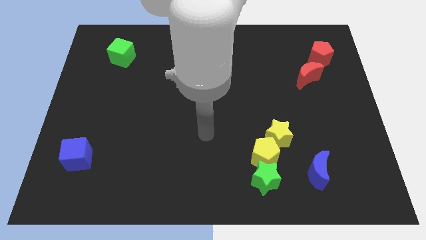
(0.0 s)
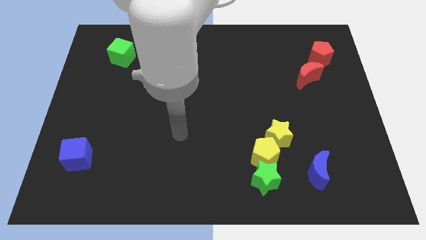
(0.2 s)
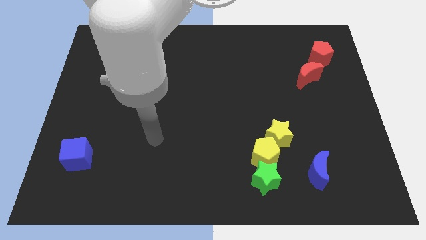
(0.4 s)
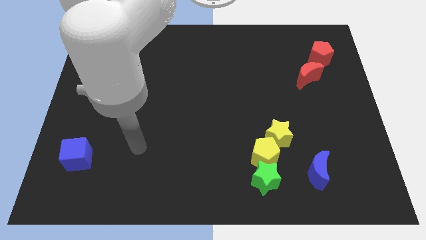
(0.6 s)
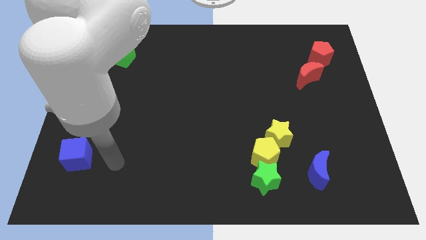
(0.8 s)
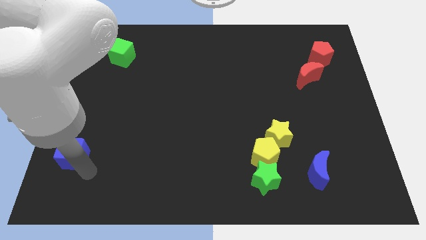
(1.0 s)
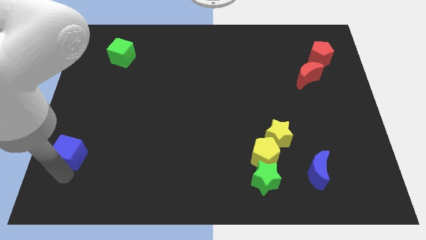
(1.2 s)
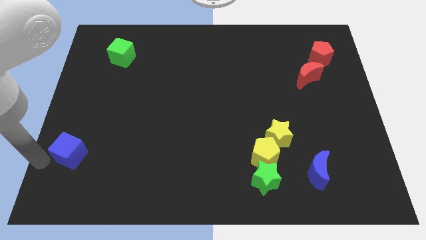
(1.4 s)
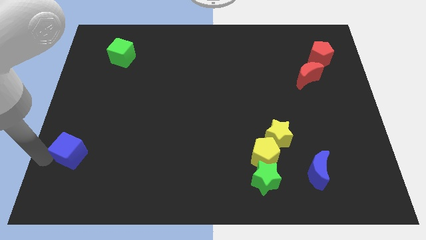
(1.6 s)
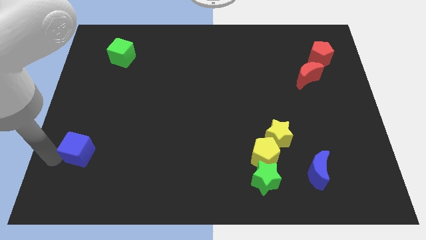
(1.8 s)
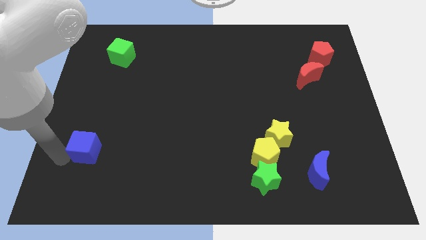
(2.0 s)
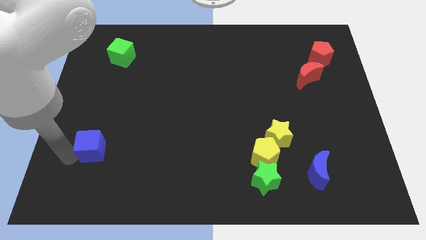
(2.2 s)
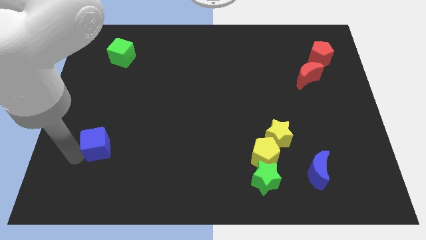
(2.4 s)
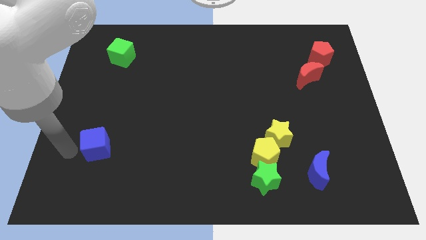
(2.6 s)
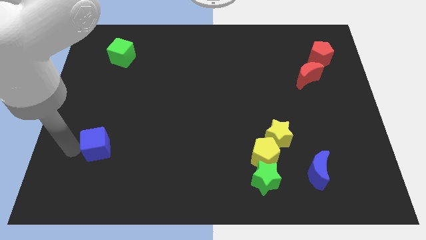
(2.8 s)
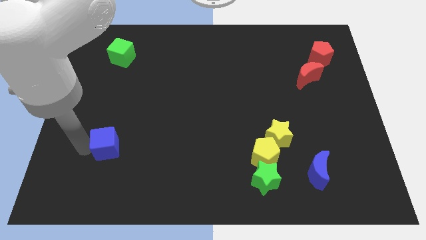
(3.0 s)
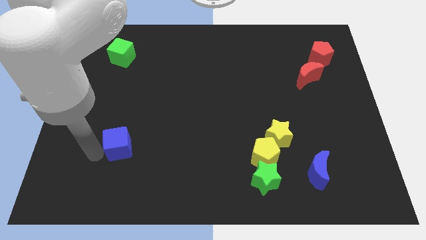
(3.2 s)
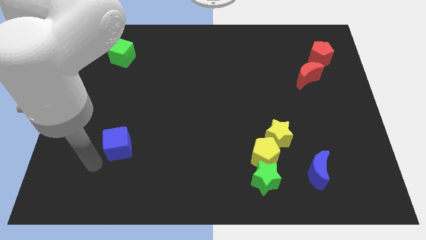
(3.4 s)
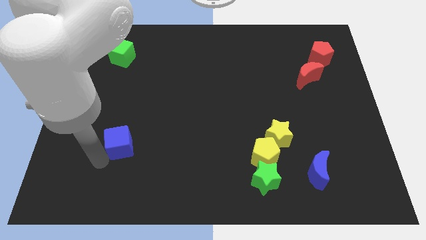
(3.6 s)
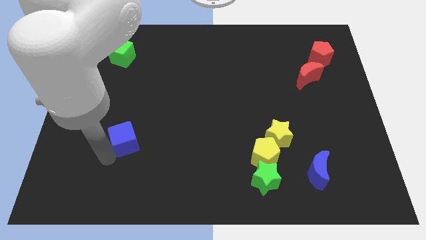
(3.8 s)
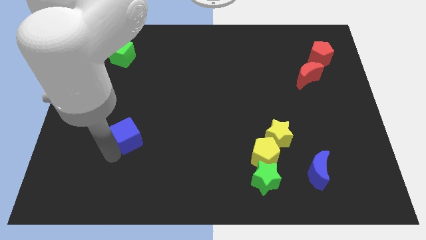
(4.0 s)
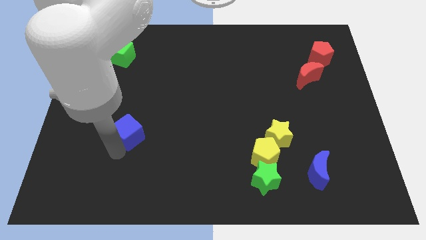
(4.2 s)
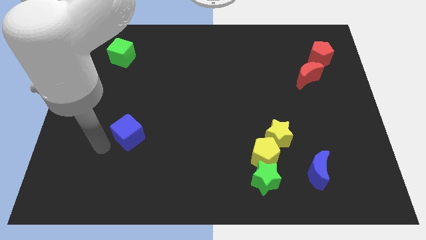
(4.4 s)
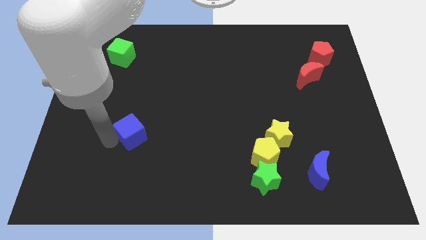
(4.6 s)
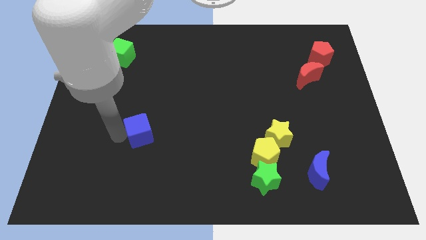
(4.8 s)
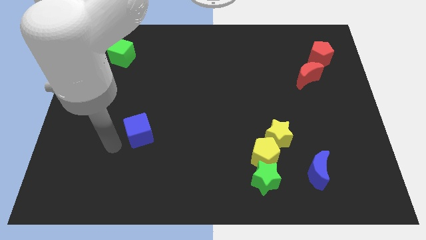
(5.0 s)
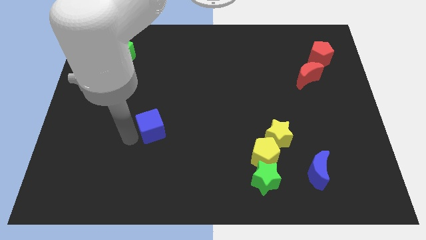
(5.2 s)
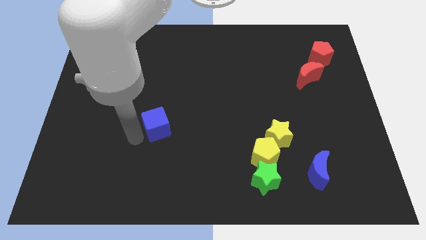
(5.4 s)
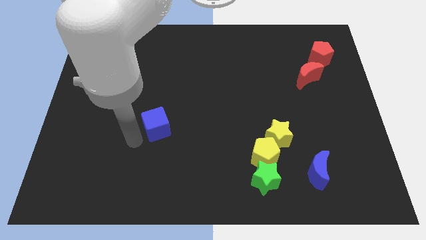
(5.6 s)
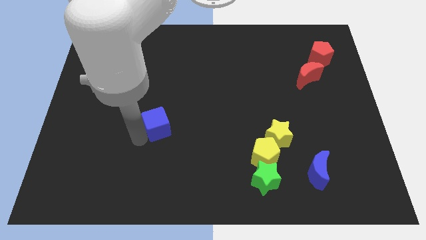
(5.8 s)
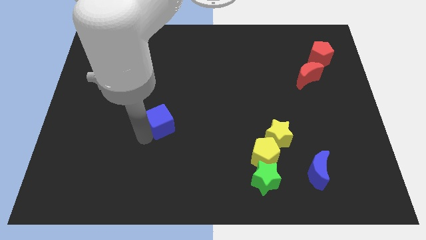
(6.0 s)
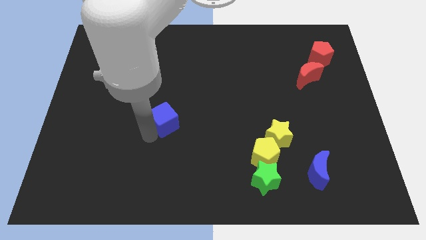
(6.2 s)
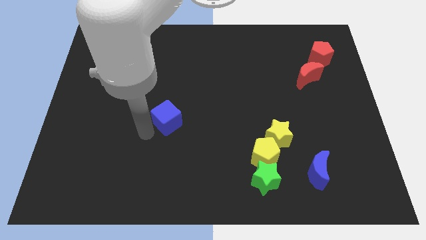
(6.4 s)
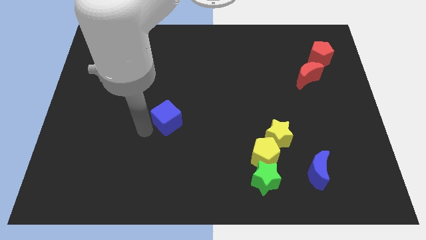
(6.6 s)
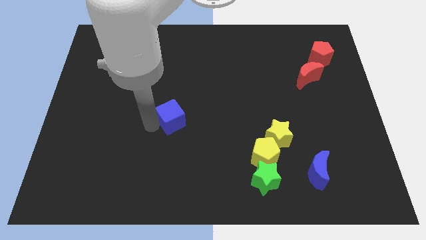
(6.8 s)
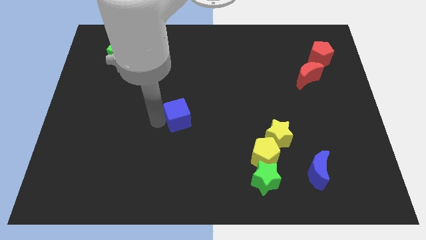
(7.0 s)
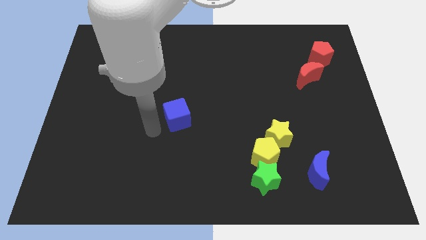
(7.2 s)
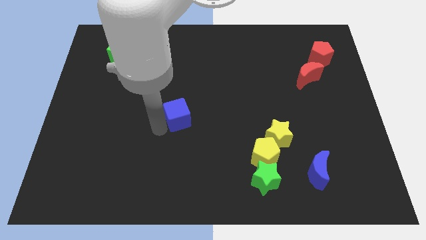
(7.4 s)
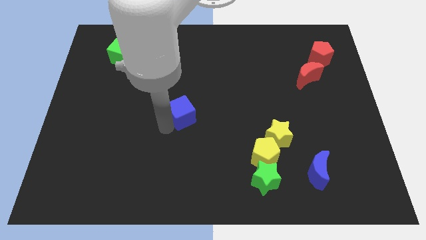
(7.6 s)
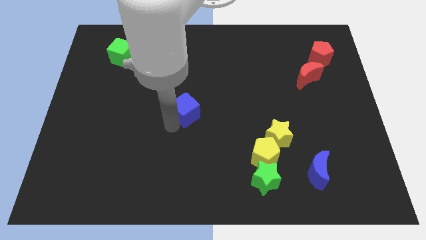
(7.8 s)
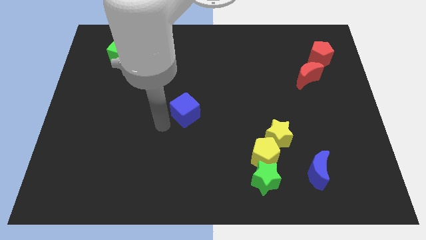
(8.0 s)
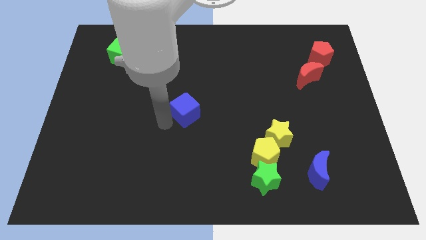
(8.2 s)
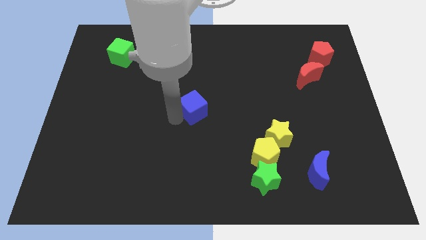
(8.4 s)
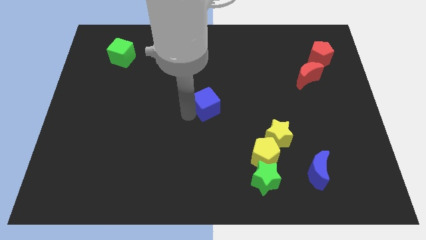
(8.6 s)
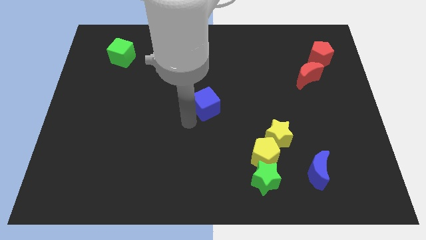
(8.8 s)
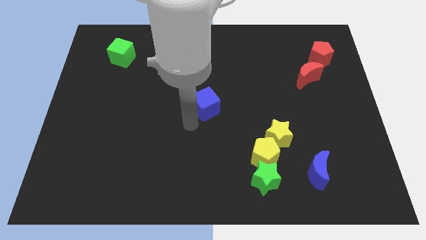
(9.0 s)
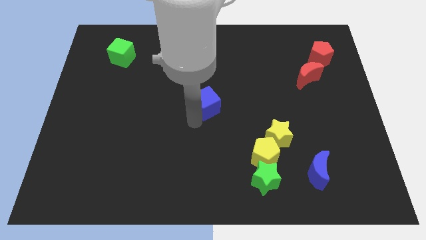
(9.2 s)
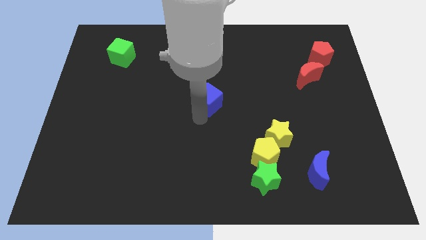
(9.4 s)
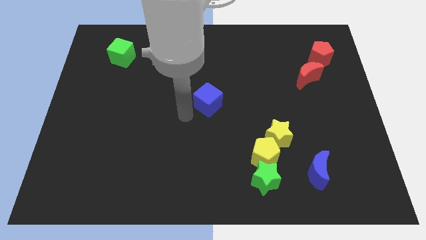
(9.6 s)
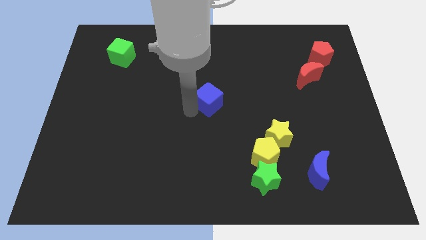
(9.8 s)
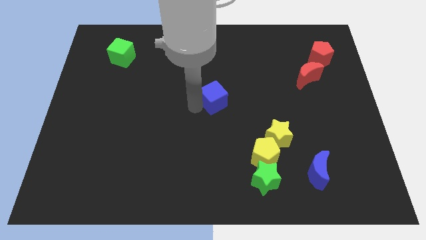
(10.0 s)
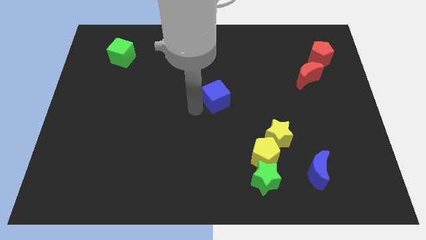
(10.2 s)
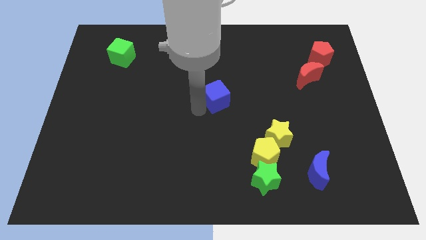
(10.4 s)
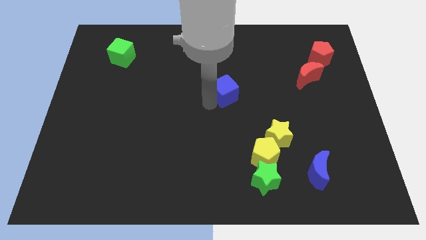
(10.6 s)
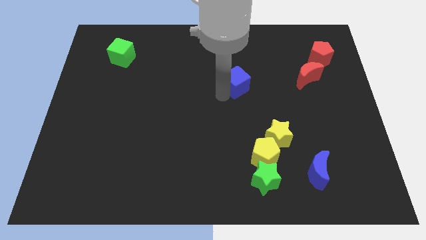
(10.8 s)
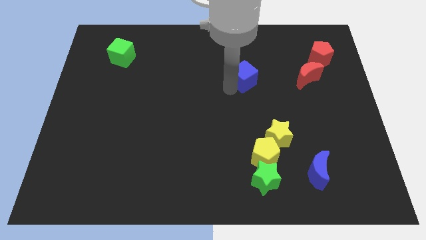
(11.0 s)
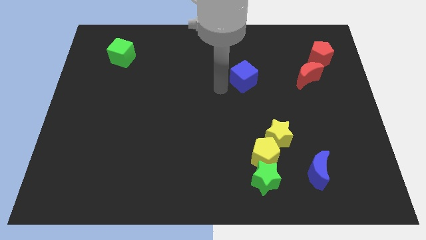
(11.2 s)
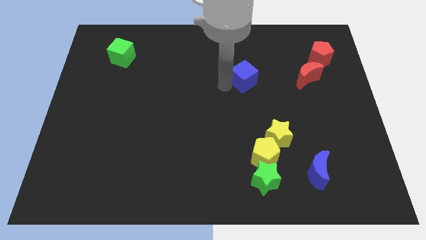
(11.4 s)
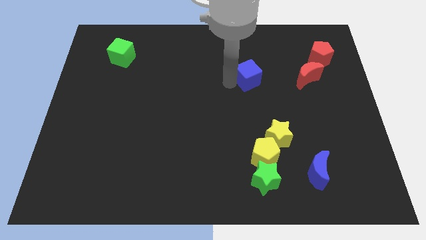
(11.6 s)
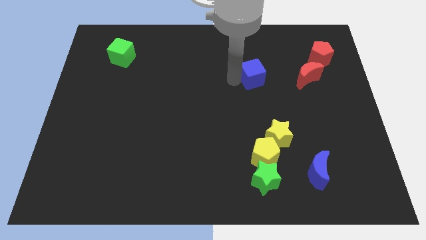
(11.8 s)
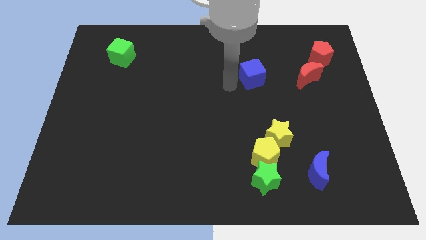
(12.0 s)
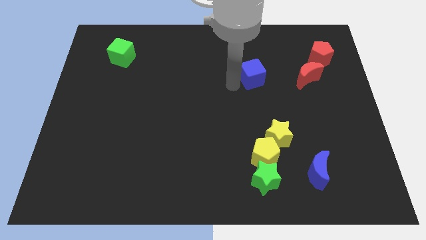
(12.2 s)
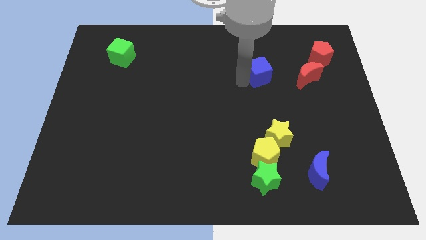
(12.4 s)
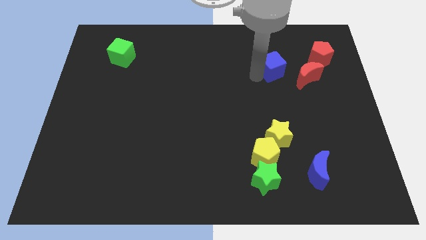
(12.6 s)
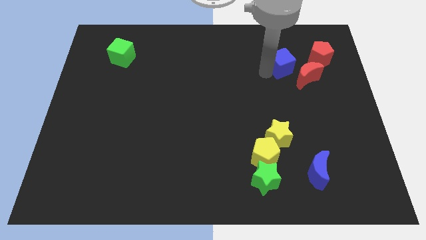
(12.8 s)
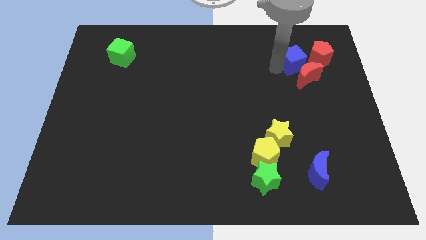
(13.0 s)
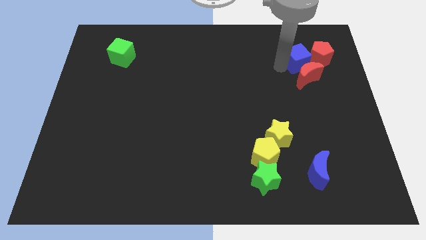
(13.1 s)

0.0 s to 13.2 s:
slide the blue cube next to the red pentagon
